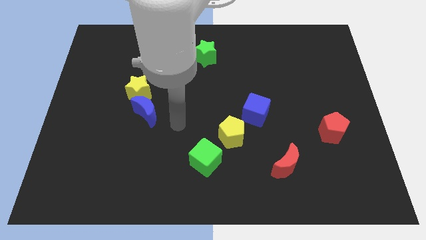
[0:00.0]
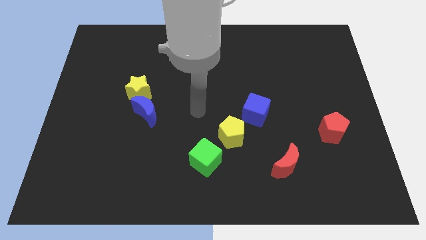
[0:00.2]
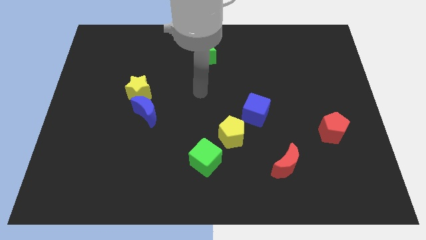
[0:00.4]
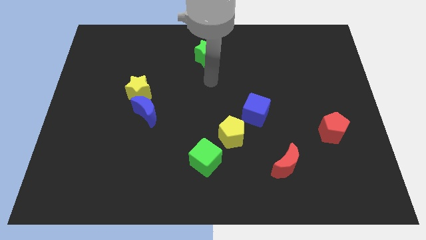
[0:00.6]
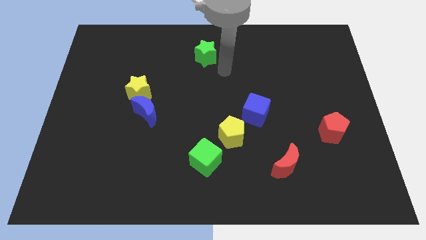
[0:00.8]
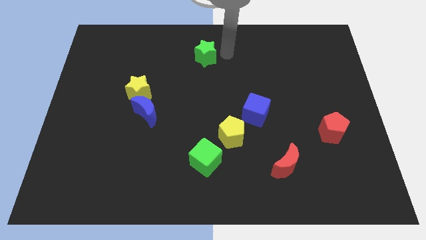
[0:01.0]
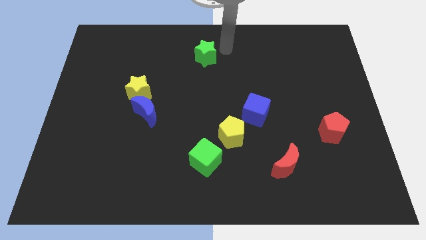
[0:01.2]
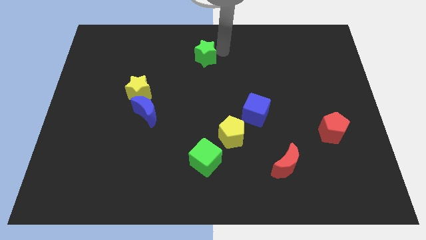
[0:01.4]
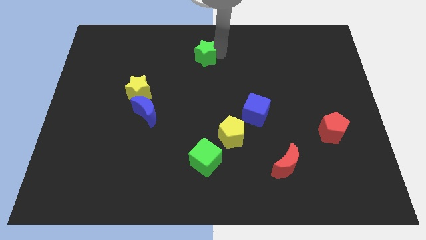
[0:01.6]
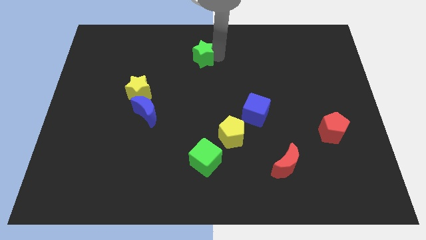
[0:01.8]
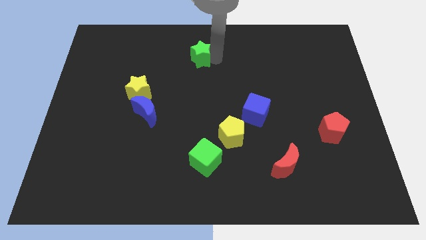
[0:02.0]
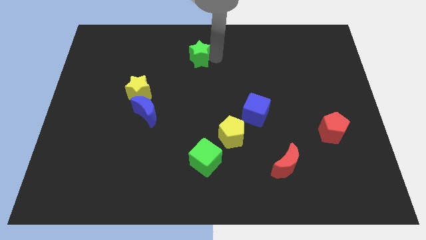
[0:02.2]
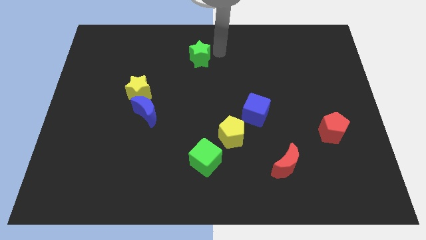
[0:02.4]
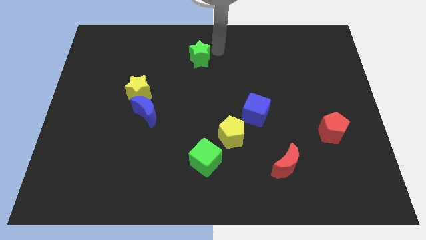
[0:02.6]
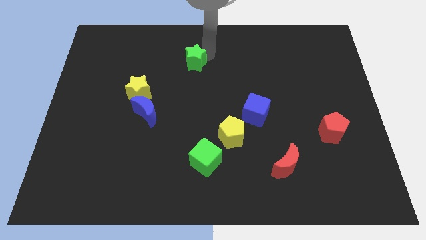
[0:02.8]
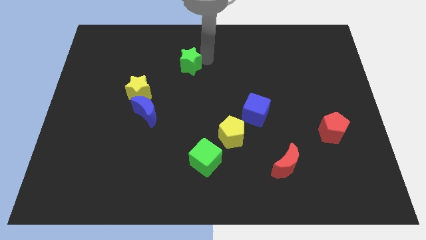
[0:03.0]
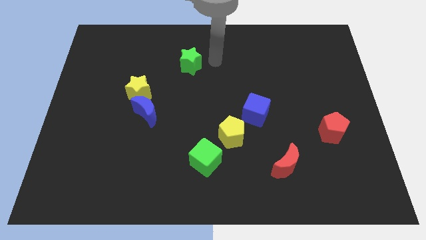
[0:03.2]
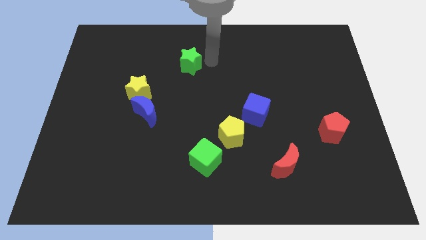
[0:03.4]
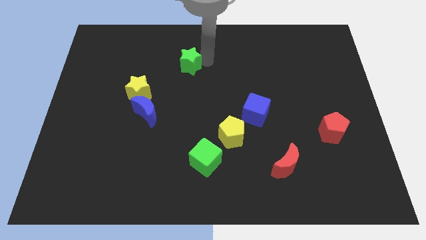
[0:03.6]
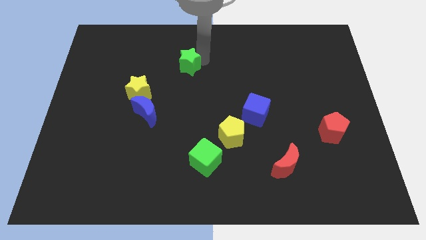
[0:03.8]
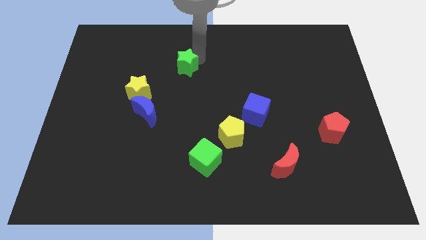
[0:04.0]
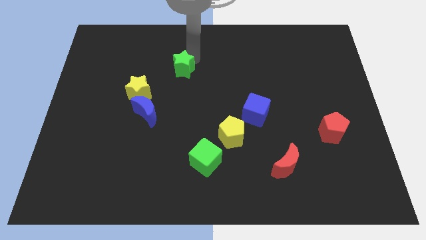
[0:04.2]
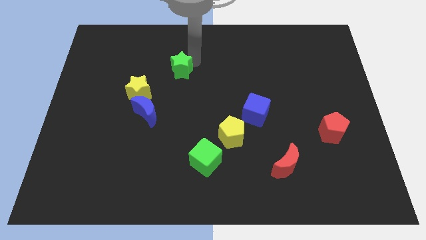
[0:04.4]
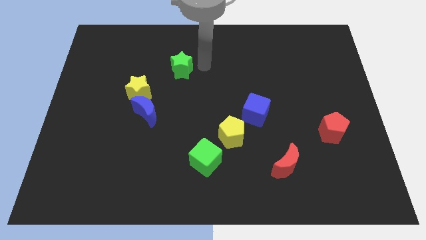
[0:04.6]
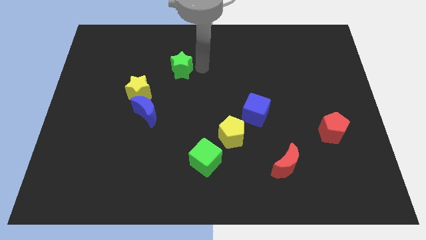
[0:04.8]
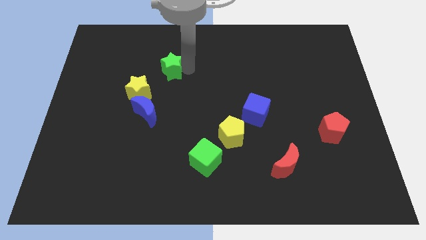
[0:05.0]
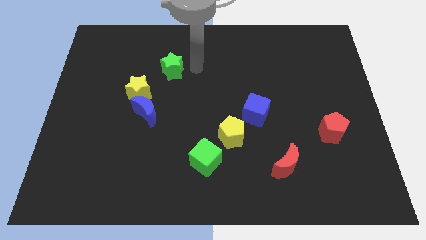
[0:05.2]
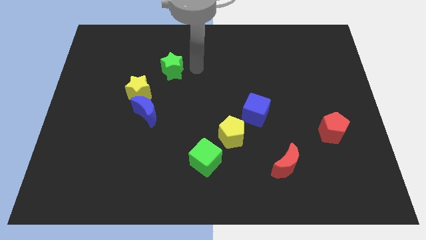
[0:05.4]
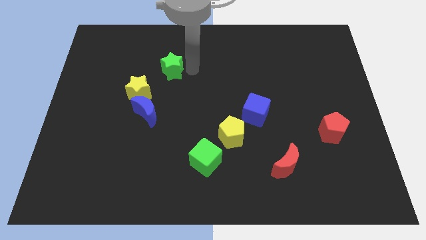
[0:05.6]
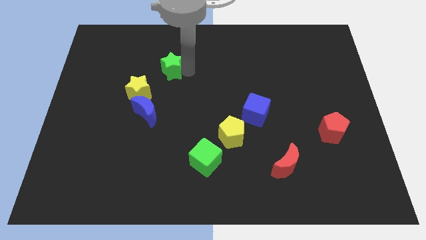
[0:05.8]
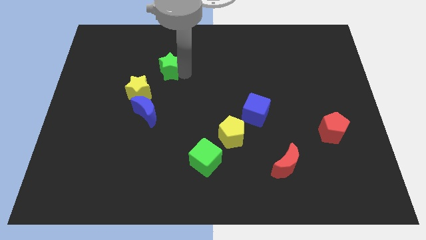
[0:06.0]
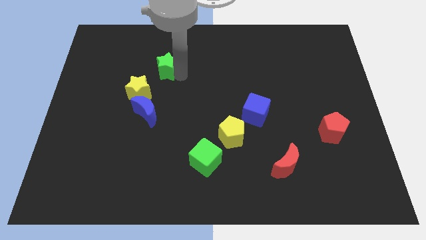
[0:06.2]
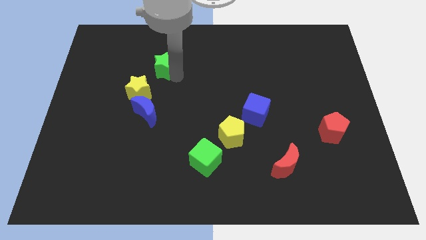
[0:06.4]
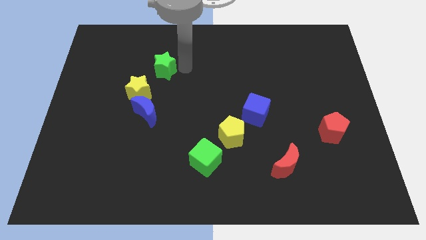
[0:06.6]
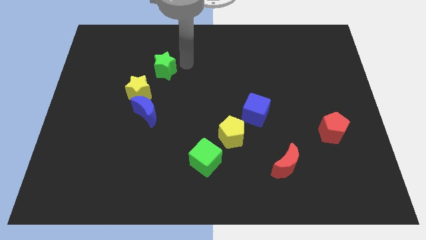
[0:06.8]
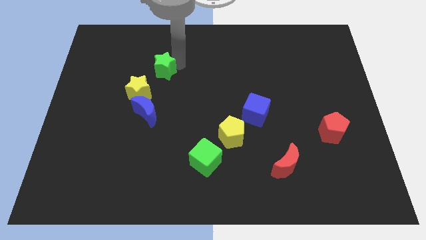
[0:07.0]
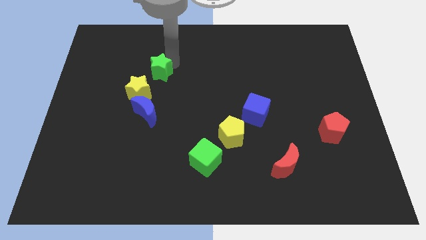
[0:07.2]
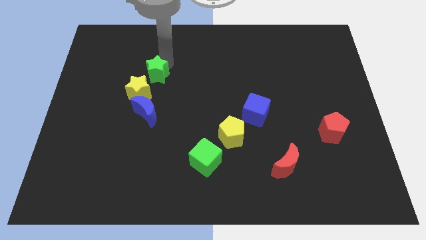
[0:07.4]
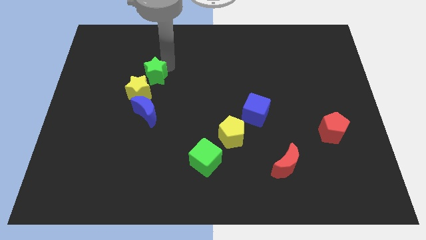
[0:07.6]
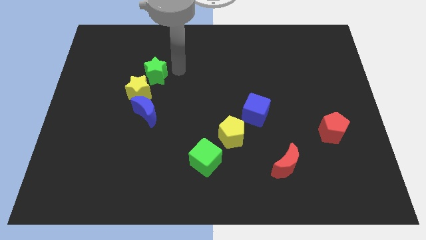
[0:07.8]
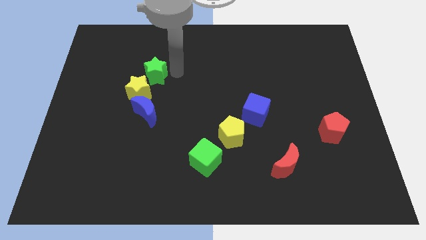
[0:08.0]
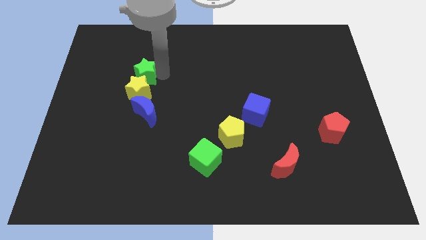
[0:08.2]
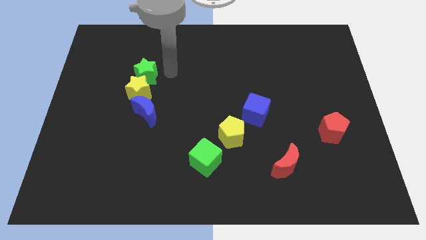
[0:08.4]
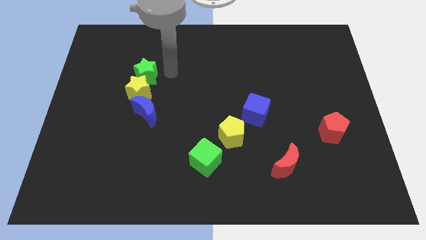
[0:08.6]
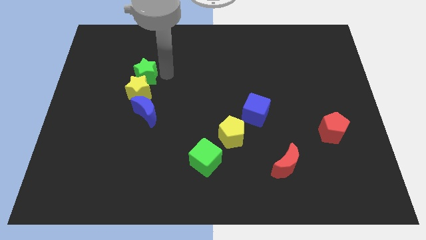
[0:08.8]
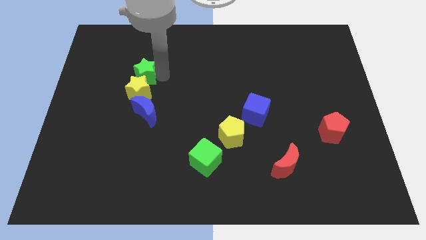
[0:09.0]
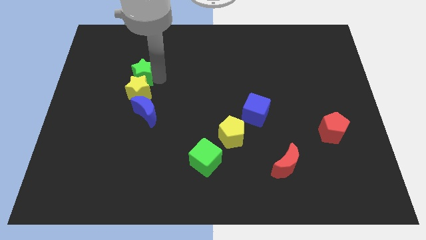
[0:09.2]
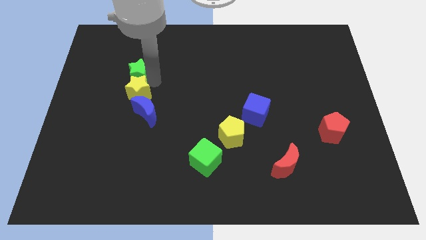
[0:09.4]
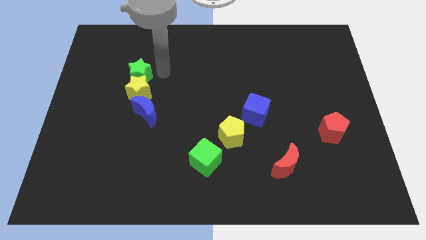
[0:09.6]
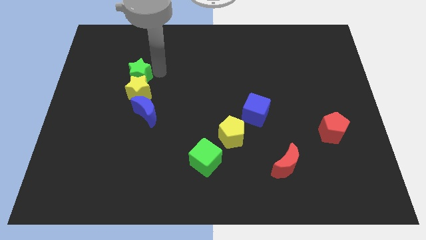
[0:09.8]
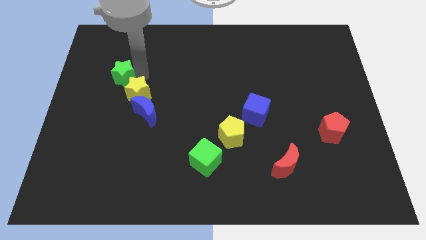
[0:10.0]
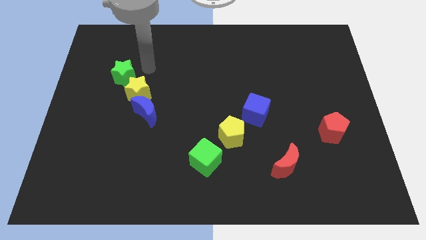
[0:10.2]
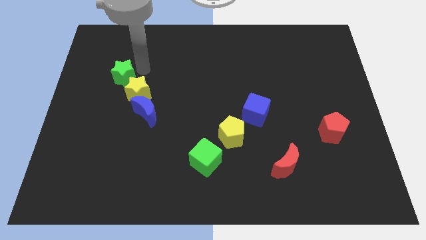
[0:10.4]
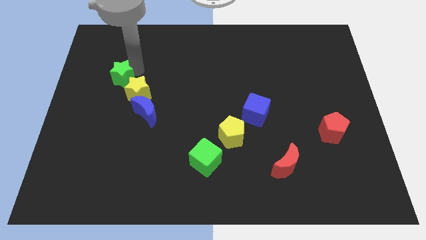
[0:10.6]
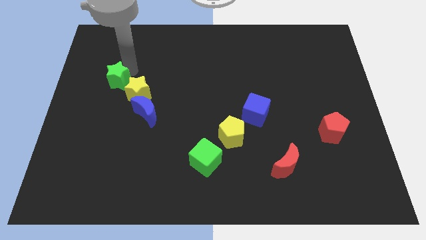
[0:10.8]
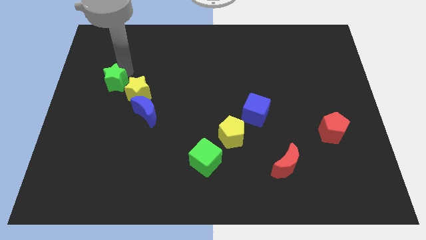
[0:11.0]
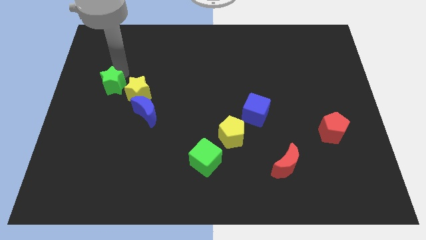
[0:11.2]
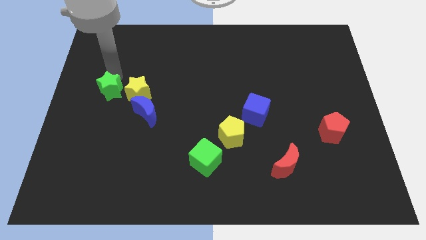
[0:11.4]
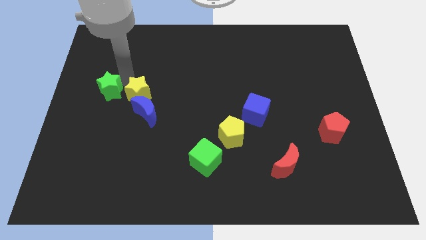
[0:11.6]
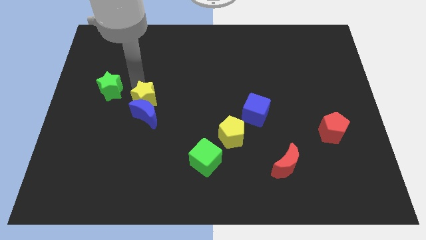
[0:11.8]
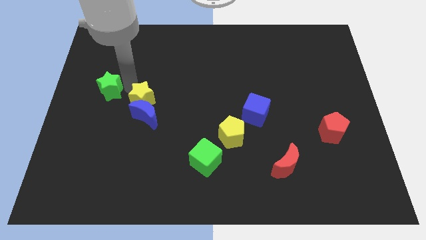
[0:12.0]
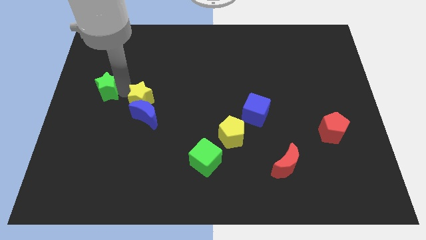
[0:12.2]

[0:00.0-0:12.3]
push the green star to the left side
